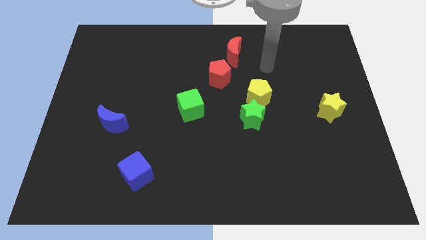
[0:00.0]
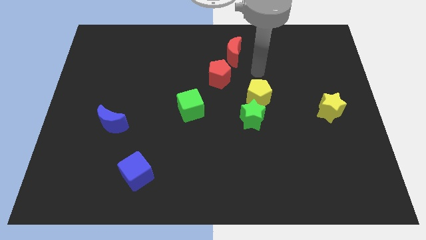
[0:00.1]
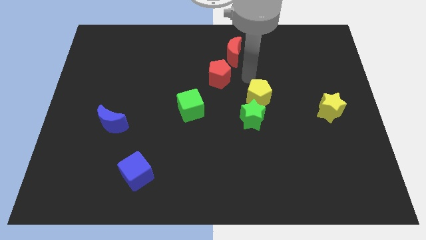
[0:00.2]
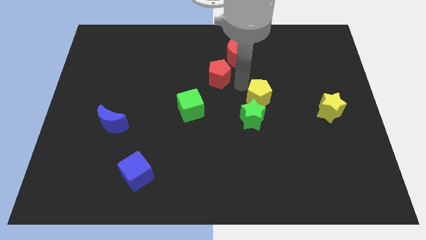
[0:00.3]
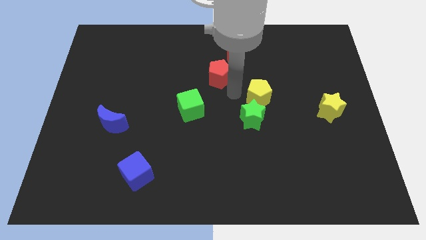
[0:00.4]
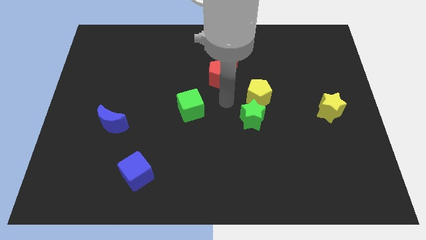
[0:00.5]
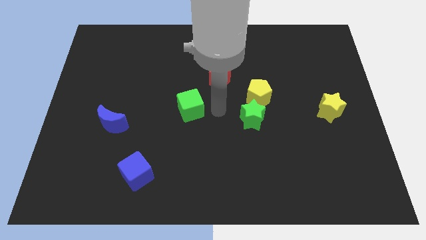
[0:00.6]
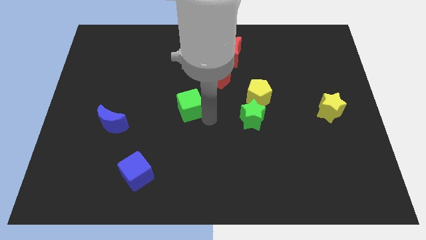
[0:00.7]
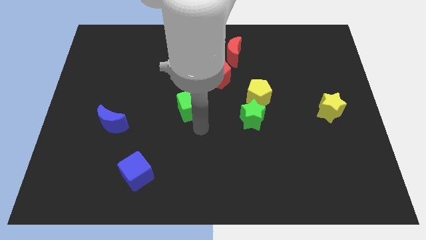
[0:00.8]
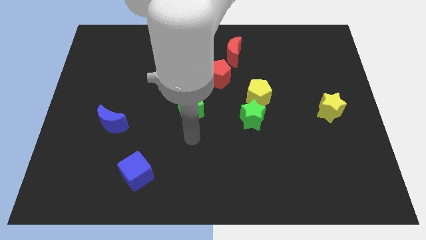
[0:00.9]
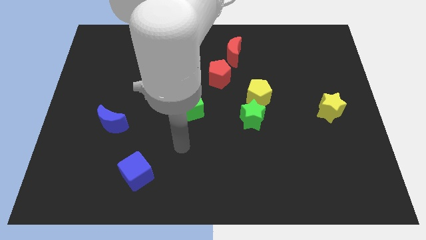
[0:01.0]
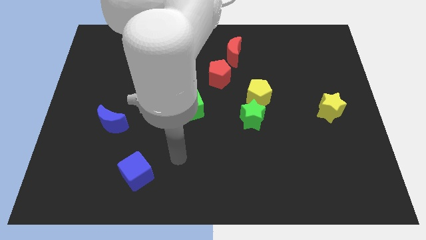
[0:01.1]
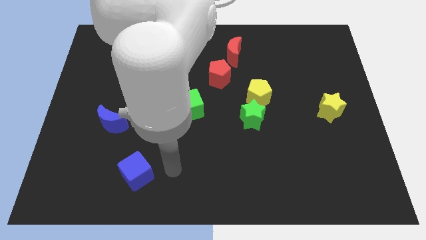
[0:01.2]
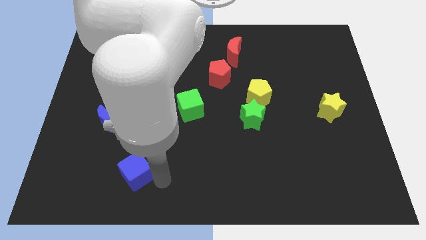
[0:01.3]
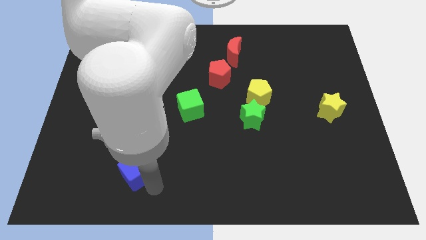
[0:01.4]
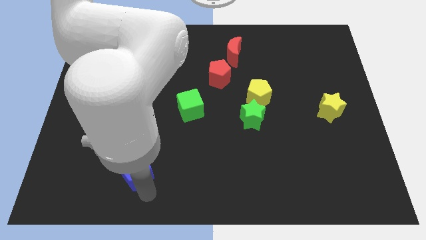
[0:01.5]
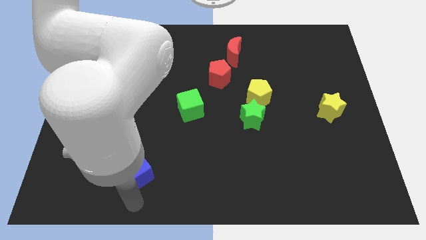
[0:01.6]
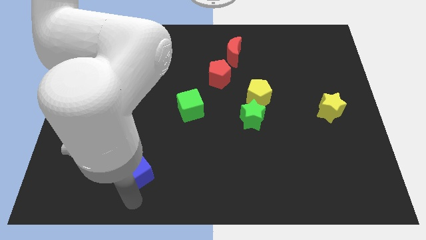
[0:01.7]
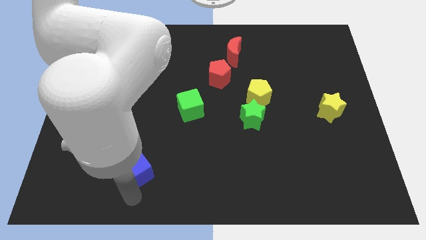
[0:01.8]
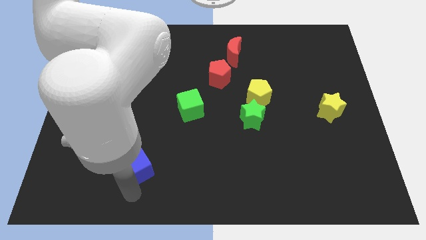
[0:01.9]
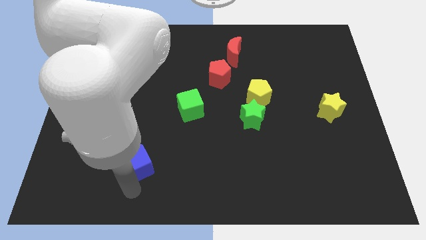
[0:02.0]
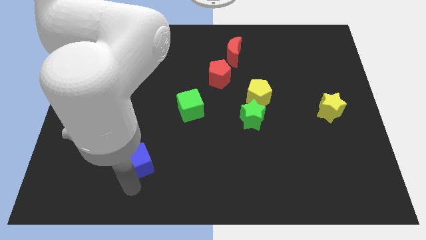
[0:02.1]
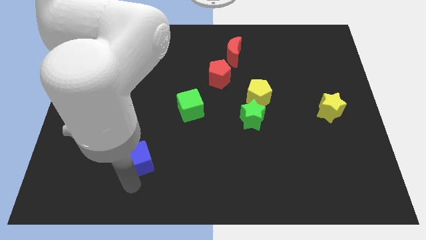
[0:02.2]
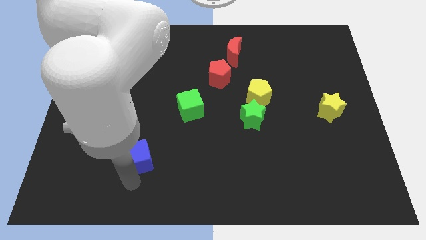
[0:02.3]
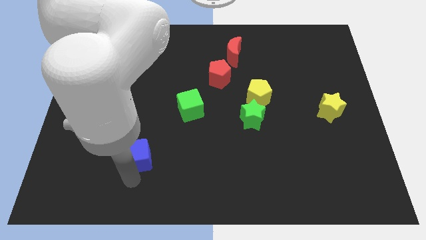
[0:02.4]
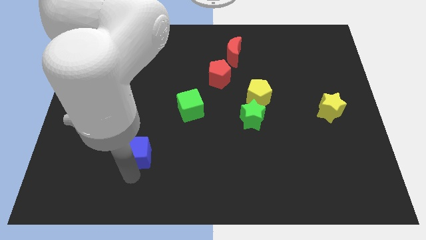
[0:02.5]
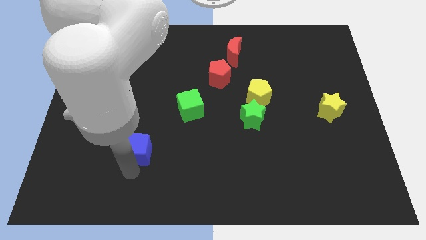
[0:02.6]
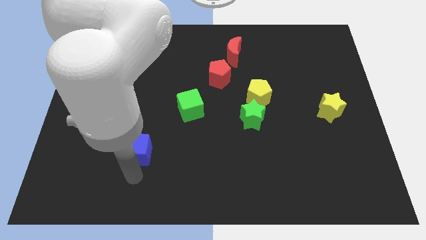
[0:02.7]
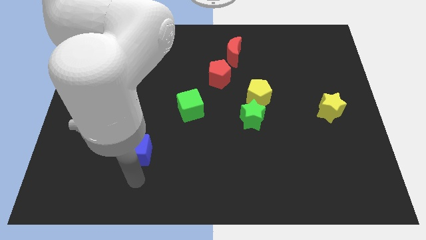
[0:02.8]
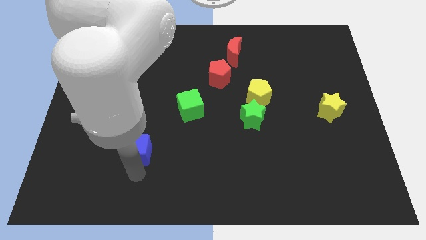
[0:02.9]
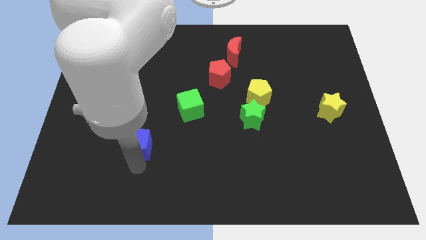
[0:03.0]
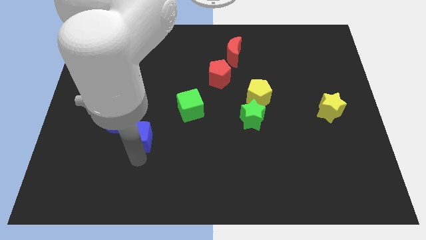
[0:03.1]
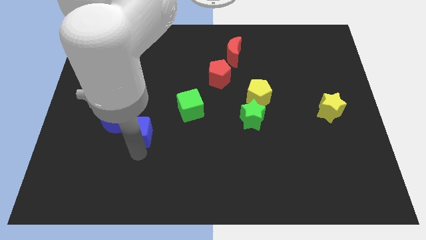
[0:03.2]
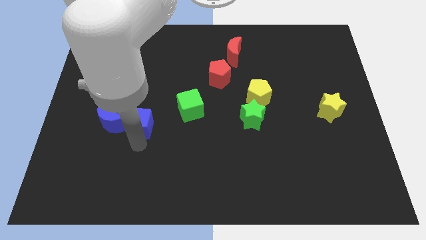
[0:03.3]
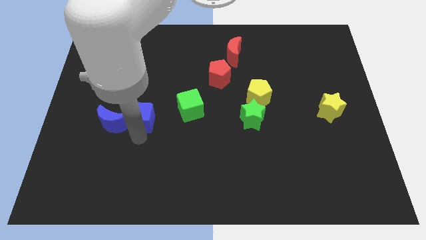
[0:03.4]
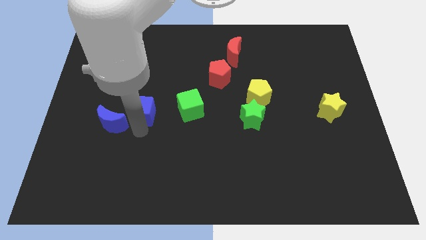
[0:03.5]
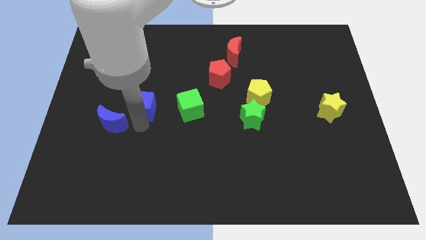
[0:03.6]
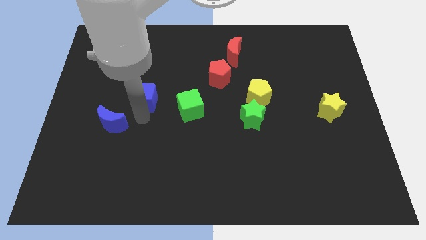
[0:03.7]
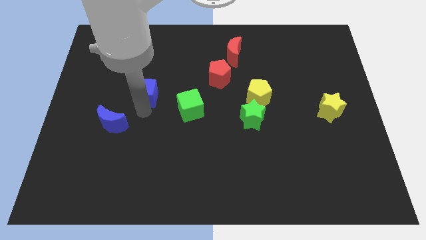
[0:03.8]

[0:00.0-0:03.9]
move the blue cube up

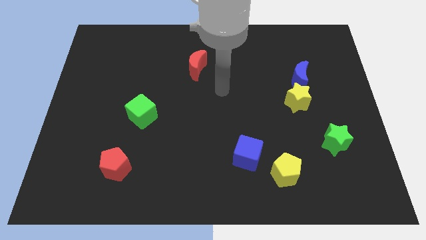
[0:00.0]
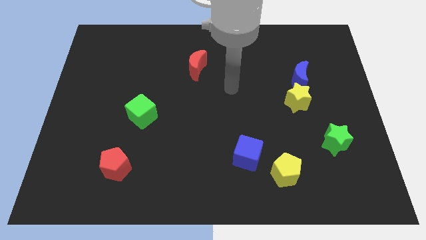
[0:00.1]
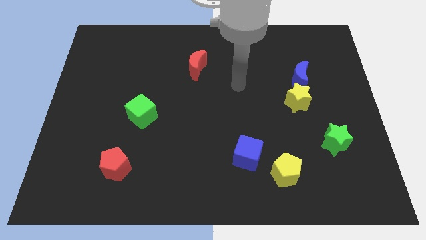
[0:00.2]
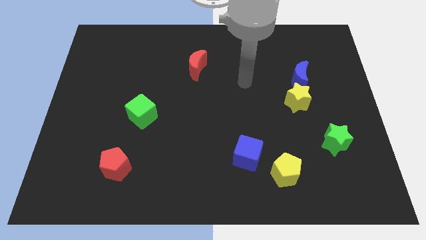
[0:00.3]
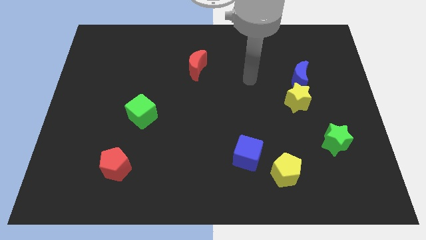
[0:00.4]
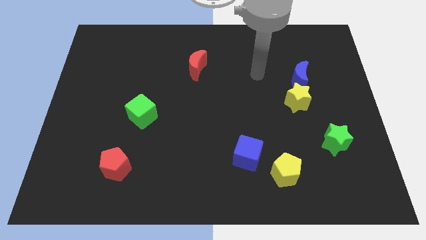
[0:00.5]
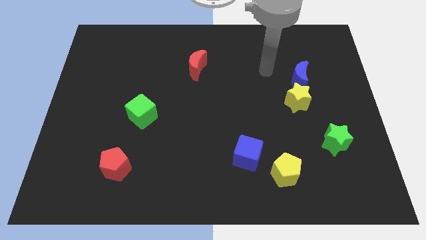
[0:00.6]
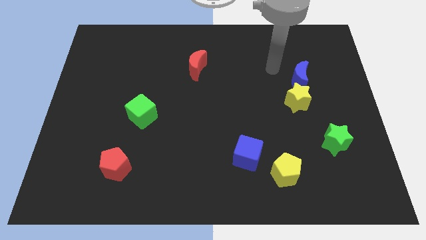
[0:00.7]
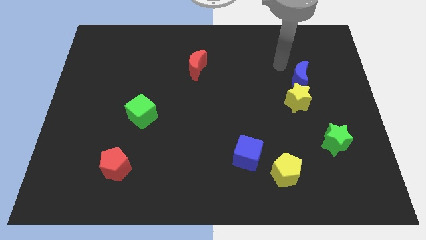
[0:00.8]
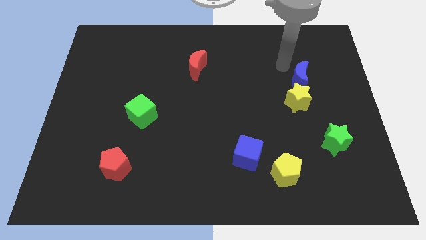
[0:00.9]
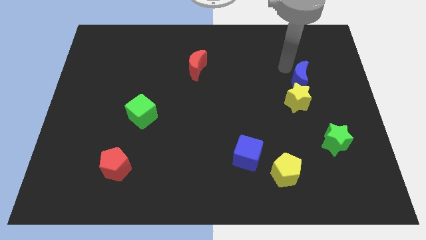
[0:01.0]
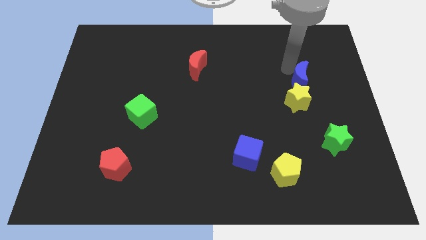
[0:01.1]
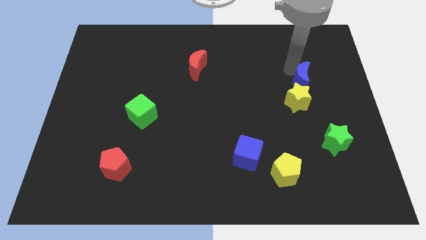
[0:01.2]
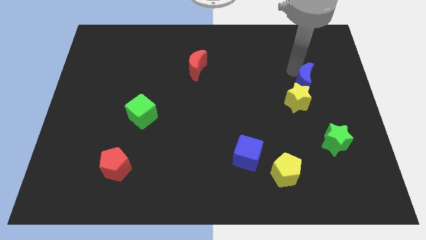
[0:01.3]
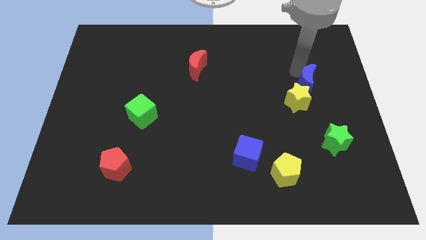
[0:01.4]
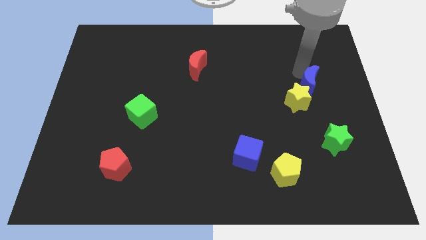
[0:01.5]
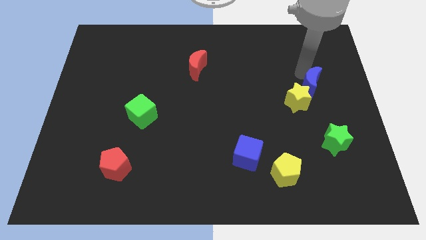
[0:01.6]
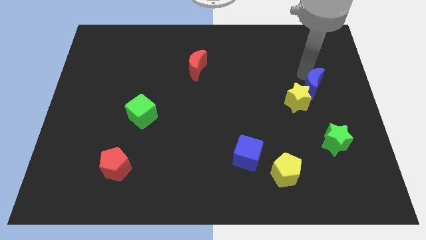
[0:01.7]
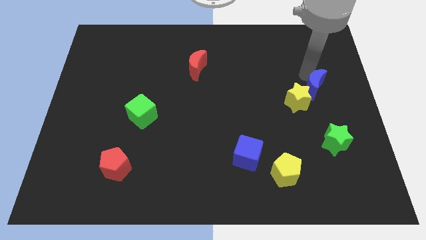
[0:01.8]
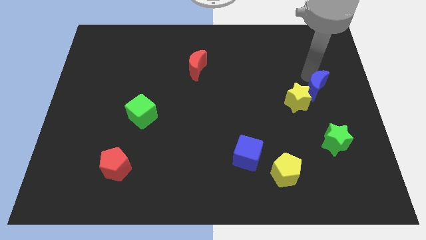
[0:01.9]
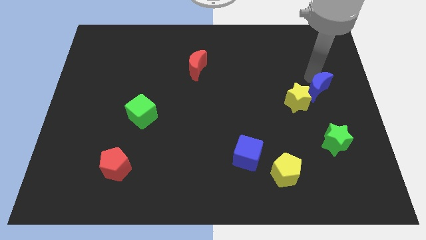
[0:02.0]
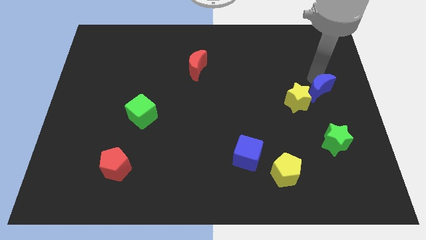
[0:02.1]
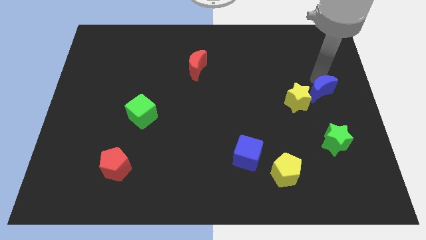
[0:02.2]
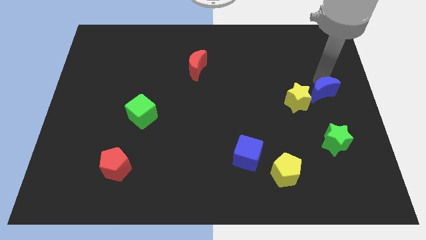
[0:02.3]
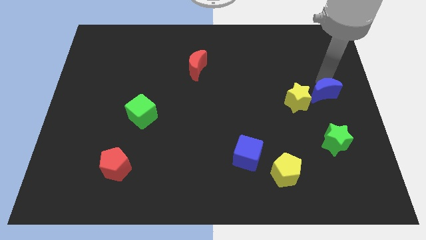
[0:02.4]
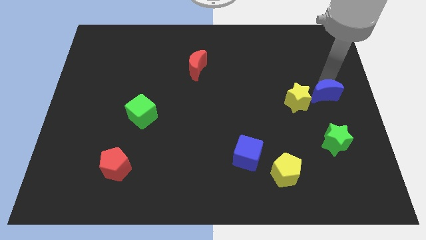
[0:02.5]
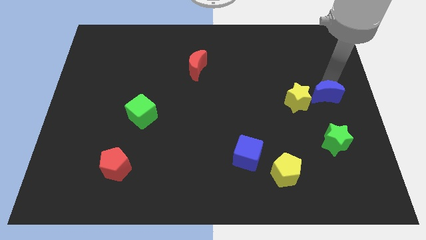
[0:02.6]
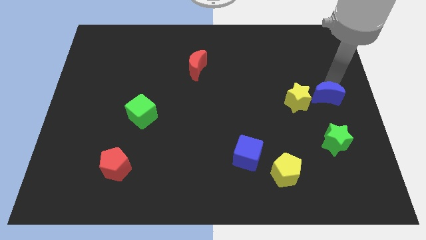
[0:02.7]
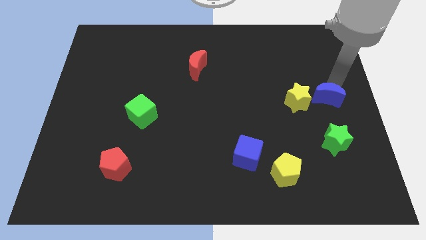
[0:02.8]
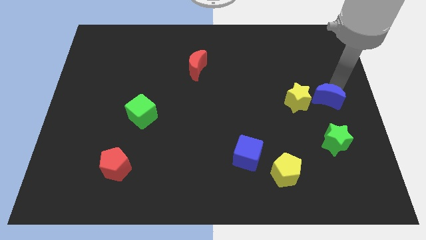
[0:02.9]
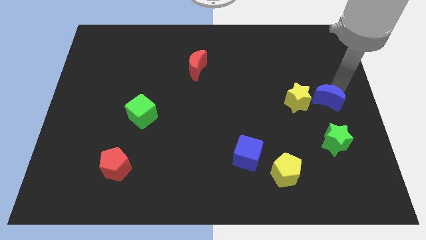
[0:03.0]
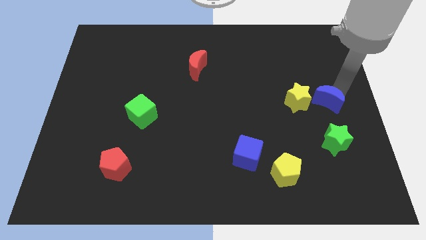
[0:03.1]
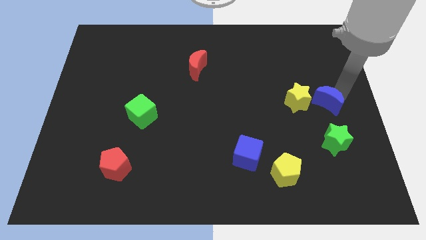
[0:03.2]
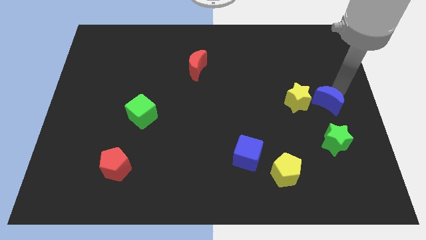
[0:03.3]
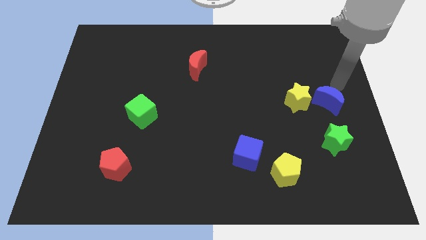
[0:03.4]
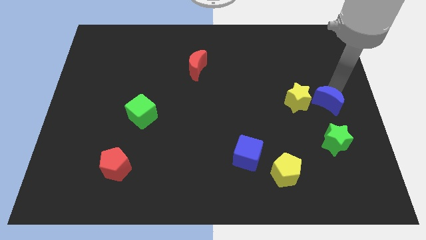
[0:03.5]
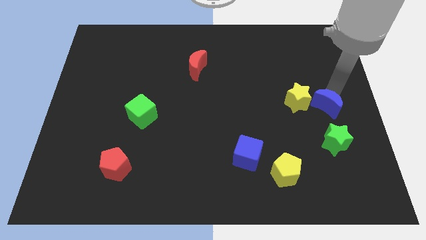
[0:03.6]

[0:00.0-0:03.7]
slightly push the blue moon down

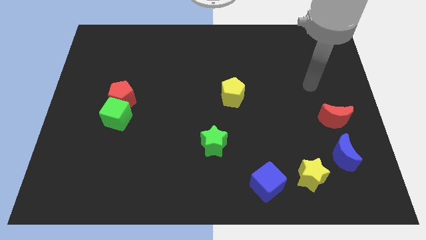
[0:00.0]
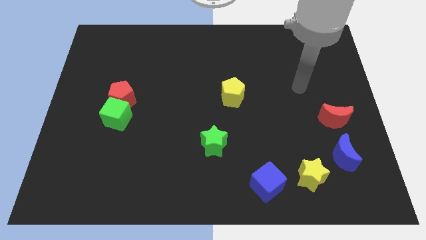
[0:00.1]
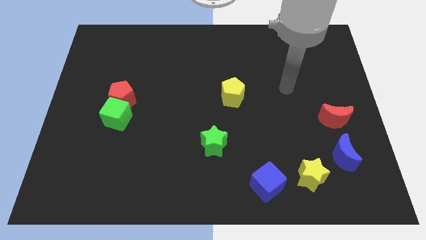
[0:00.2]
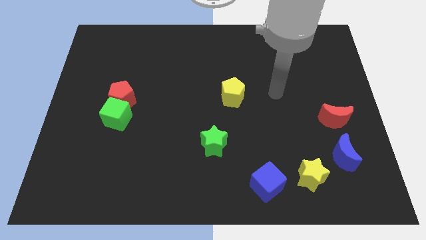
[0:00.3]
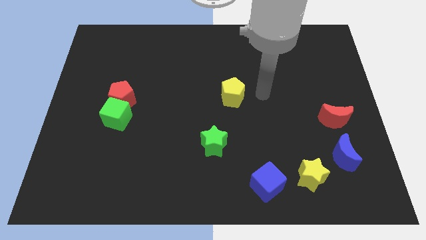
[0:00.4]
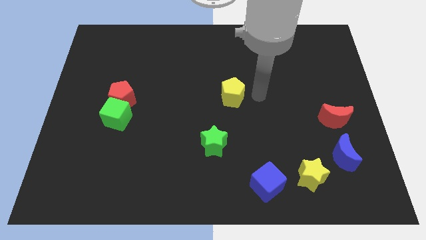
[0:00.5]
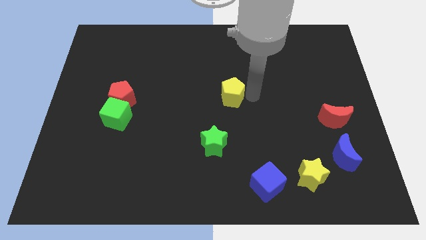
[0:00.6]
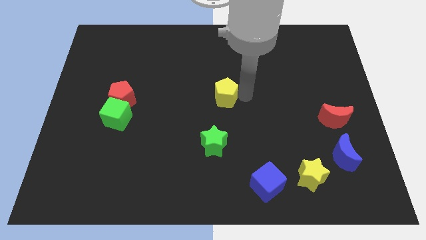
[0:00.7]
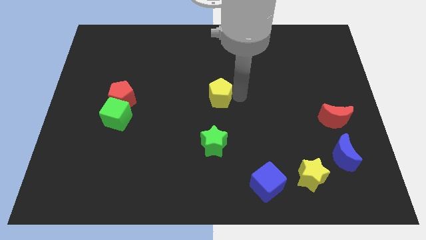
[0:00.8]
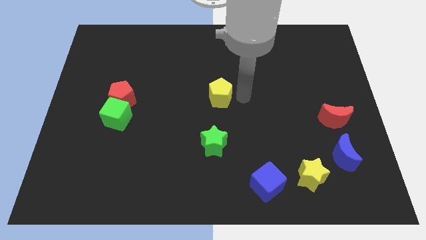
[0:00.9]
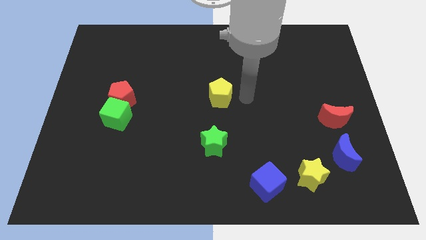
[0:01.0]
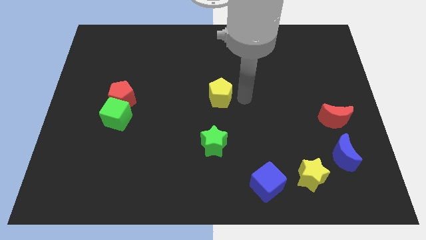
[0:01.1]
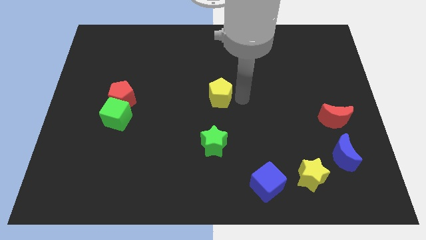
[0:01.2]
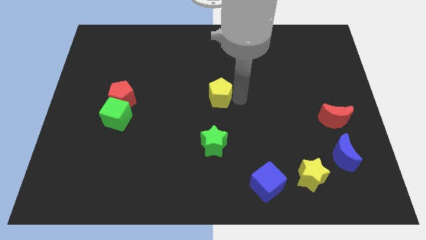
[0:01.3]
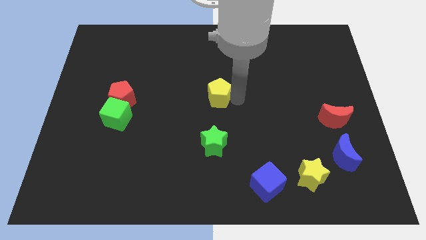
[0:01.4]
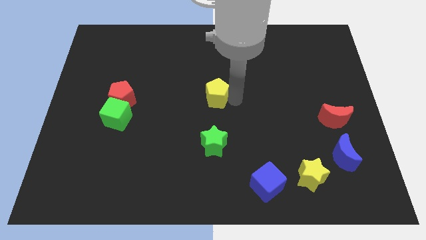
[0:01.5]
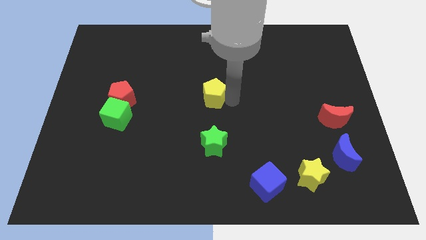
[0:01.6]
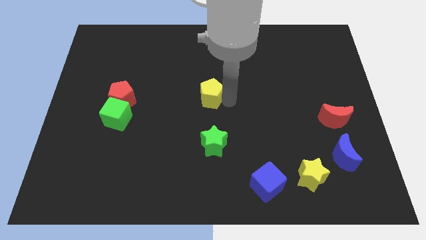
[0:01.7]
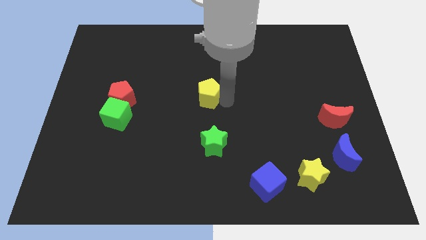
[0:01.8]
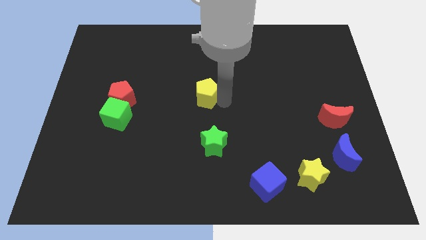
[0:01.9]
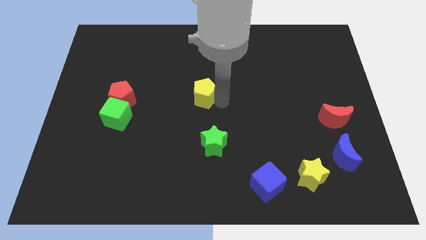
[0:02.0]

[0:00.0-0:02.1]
move the yellow pentagon to the left a little bit
